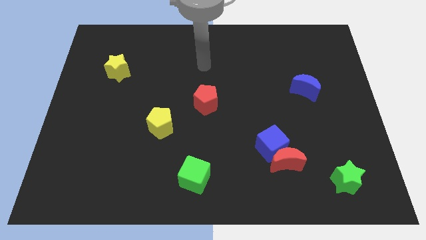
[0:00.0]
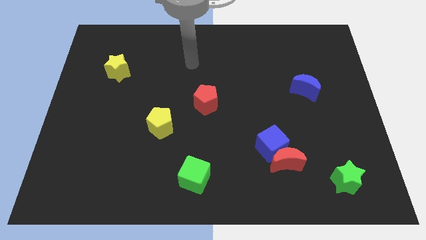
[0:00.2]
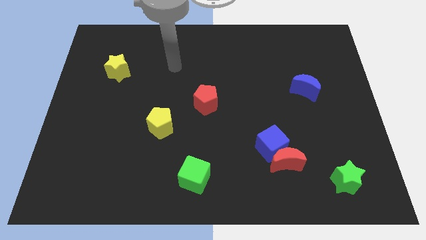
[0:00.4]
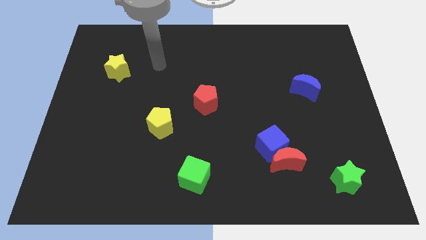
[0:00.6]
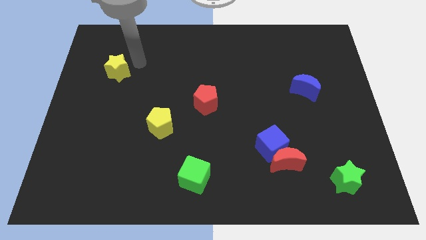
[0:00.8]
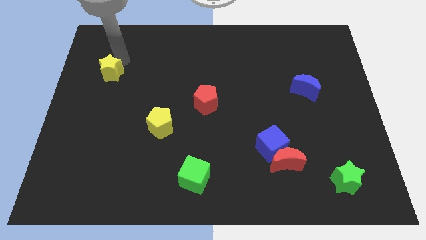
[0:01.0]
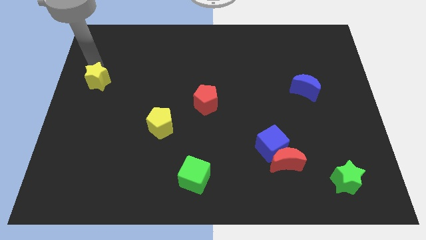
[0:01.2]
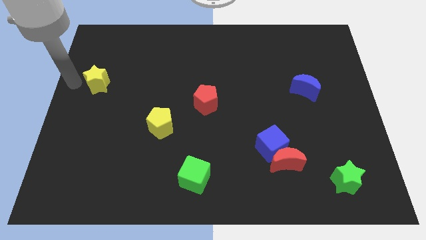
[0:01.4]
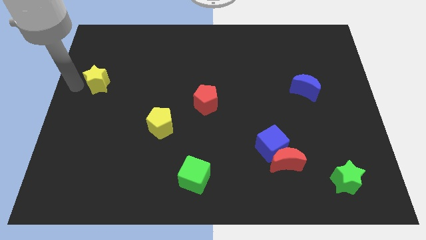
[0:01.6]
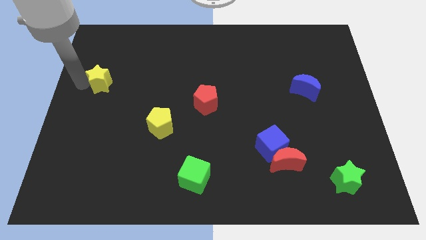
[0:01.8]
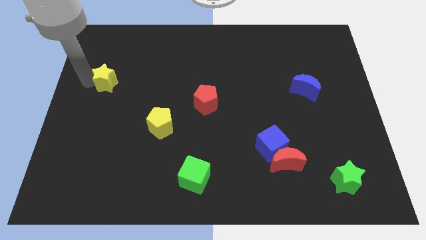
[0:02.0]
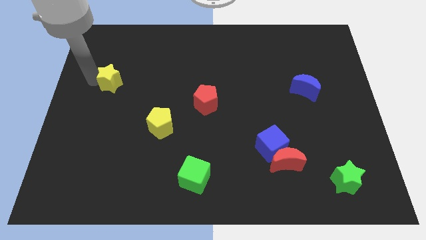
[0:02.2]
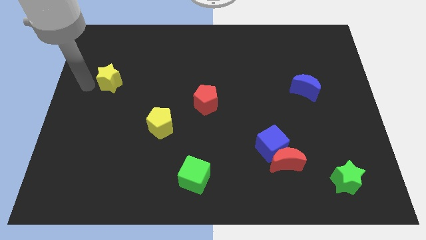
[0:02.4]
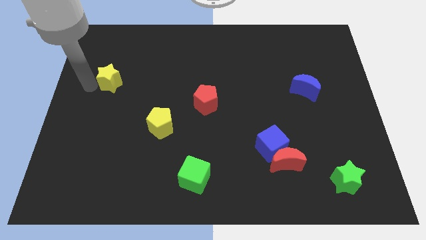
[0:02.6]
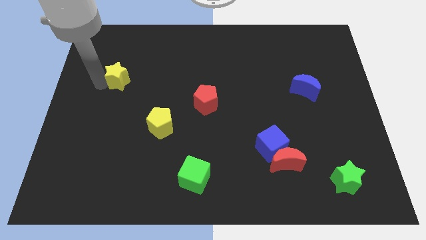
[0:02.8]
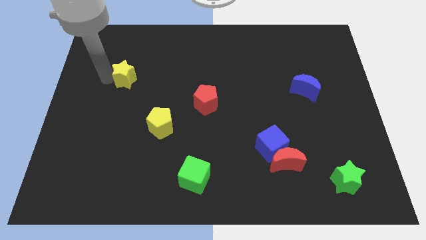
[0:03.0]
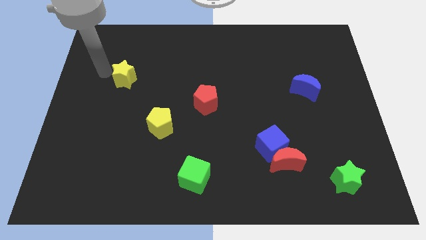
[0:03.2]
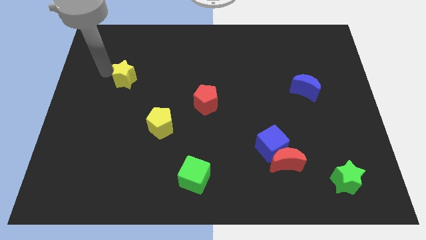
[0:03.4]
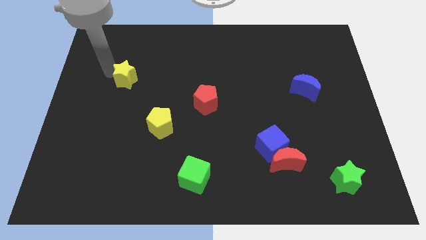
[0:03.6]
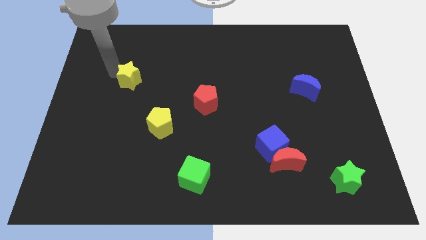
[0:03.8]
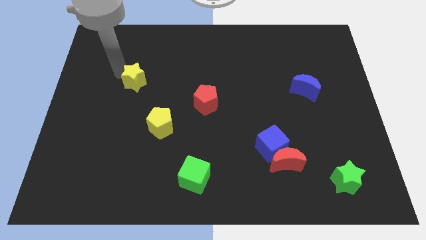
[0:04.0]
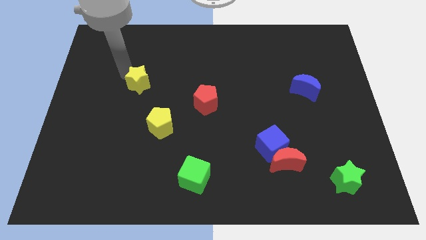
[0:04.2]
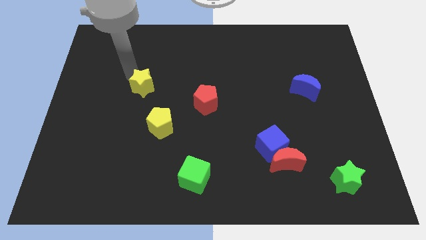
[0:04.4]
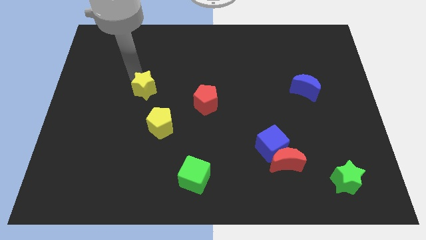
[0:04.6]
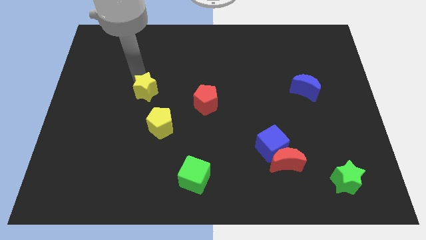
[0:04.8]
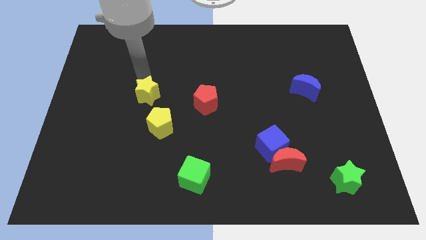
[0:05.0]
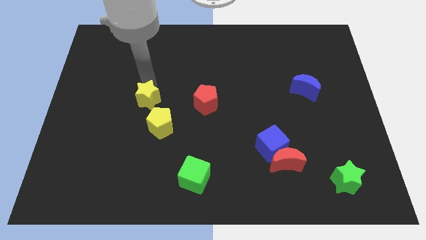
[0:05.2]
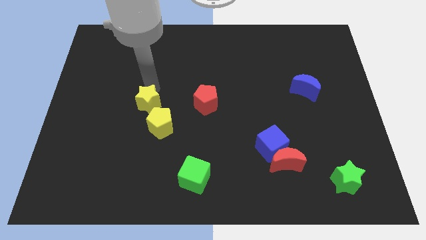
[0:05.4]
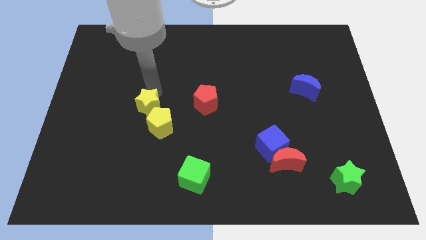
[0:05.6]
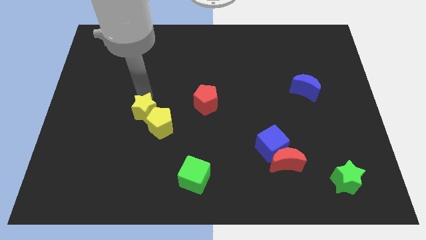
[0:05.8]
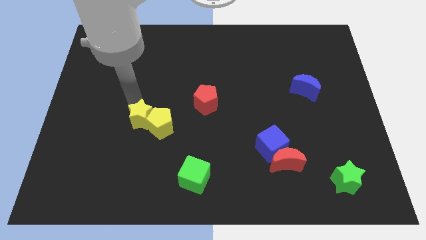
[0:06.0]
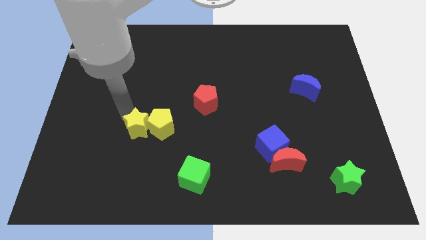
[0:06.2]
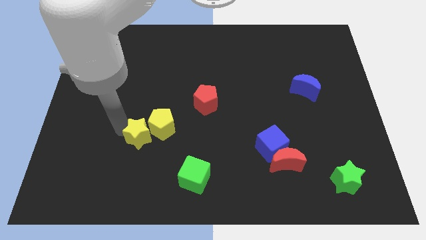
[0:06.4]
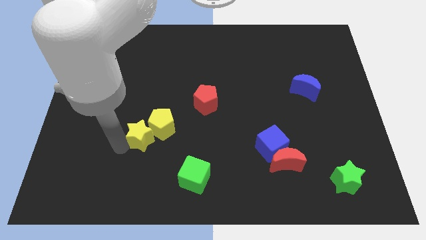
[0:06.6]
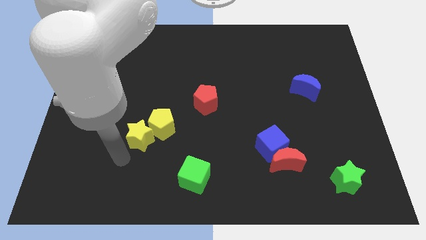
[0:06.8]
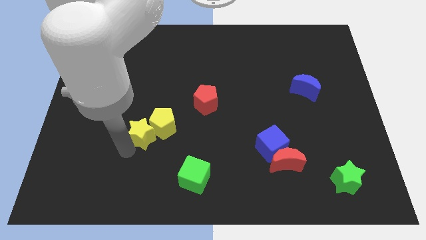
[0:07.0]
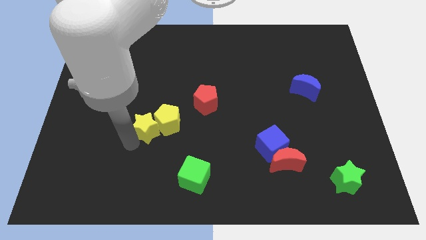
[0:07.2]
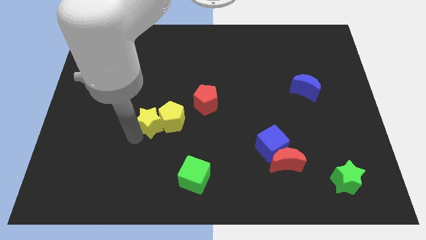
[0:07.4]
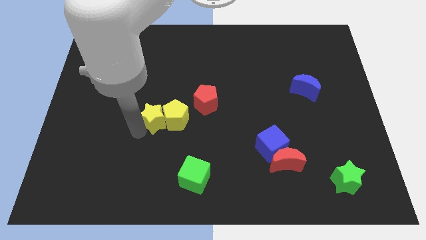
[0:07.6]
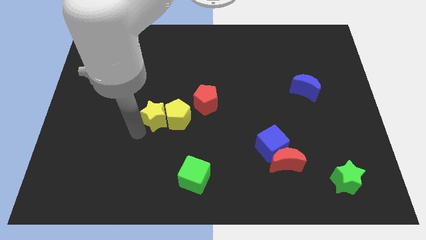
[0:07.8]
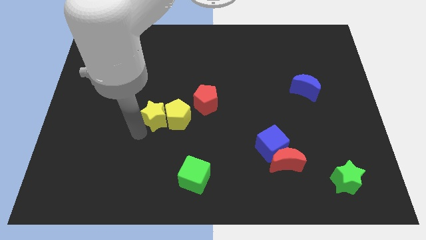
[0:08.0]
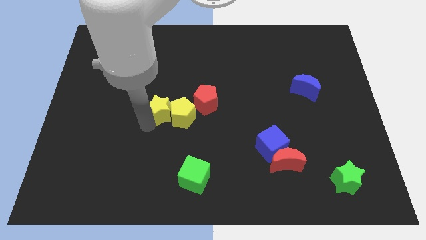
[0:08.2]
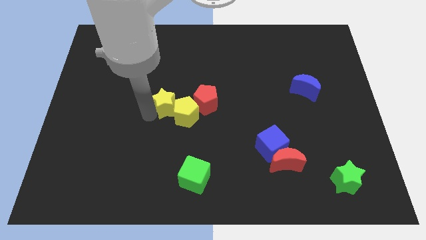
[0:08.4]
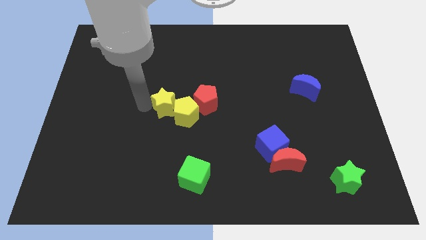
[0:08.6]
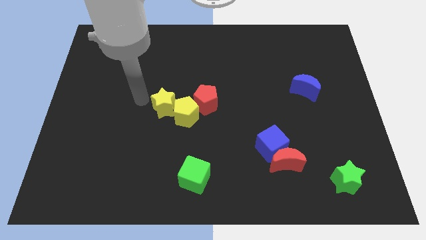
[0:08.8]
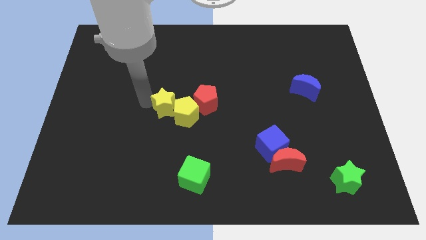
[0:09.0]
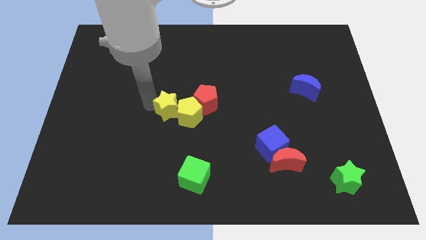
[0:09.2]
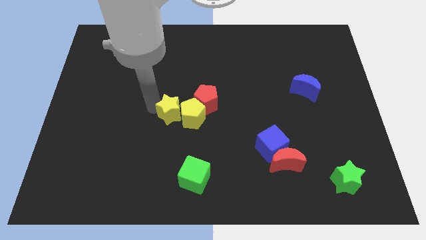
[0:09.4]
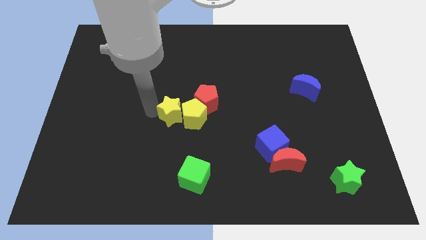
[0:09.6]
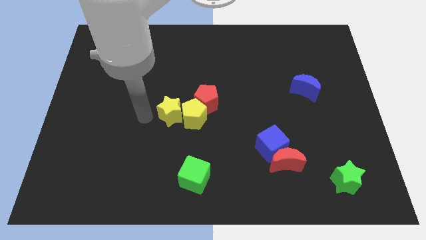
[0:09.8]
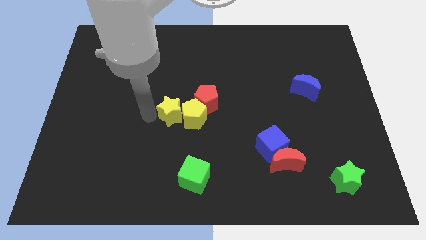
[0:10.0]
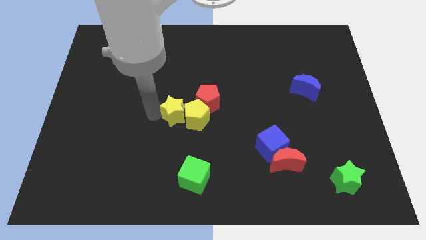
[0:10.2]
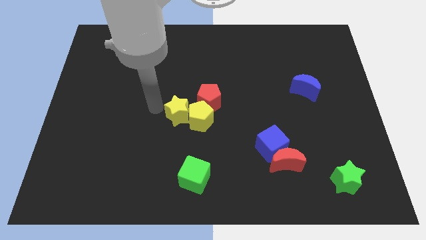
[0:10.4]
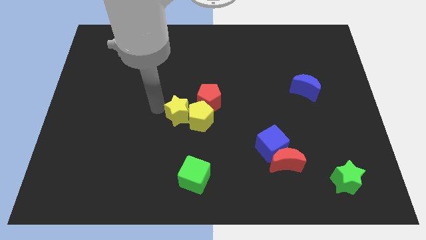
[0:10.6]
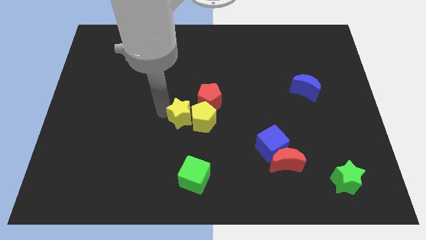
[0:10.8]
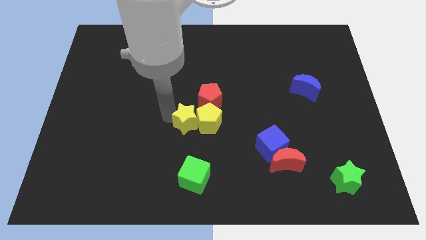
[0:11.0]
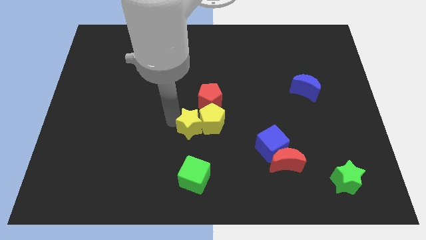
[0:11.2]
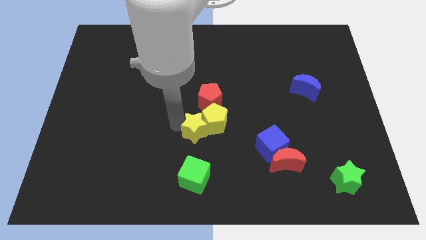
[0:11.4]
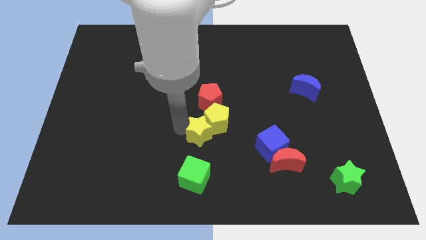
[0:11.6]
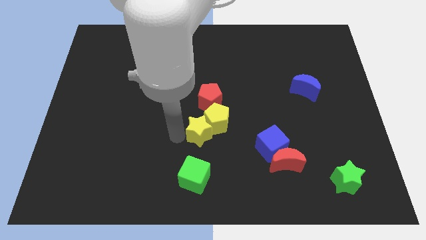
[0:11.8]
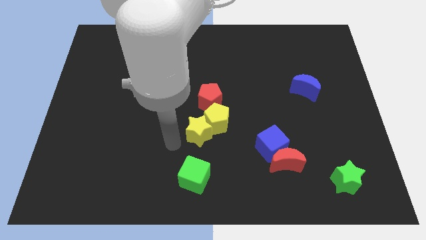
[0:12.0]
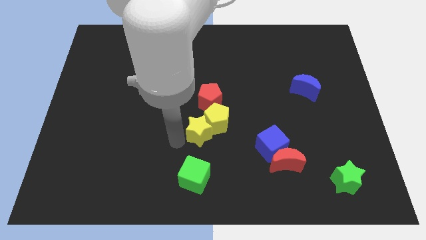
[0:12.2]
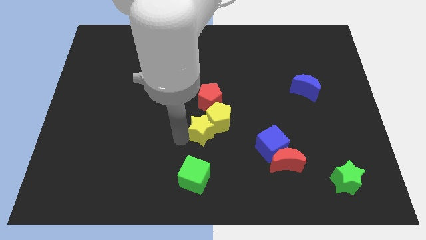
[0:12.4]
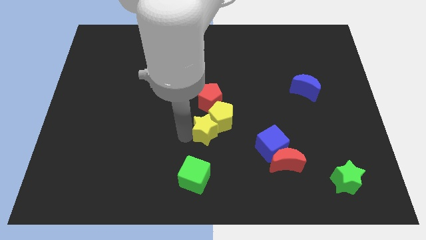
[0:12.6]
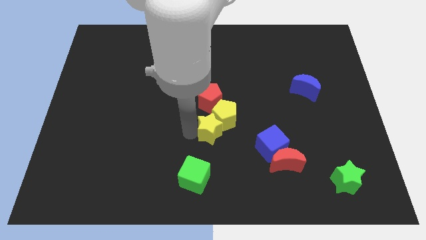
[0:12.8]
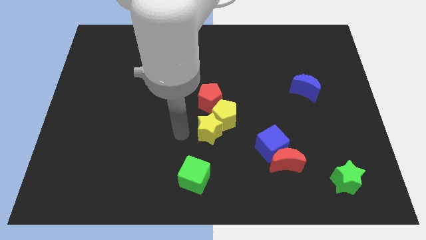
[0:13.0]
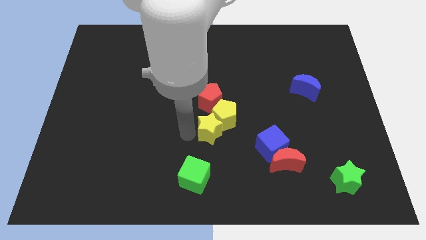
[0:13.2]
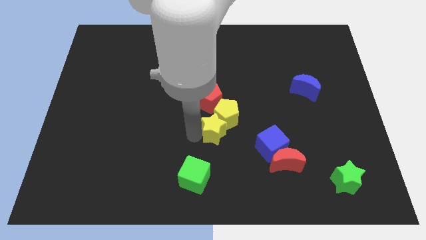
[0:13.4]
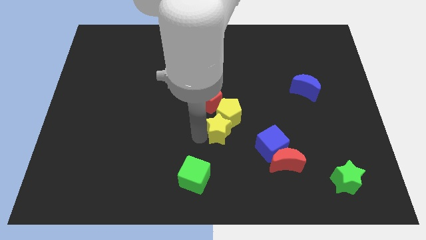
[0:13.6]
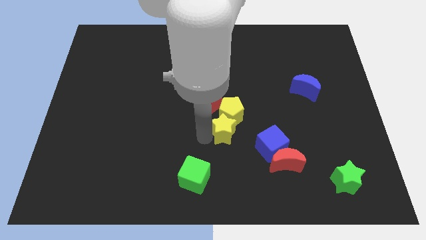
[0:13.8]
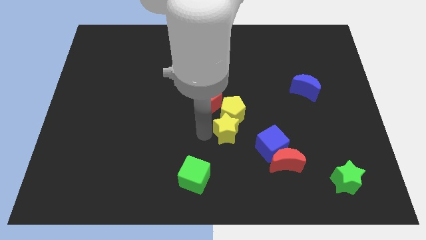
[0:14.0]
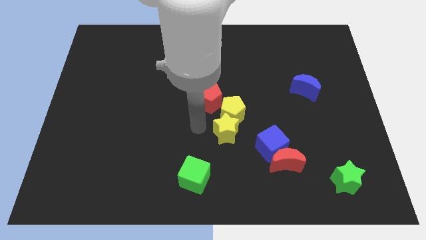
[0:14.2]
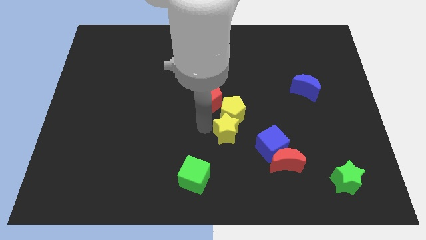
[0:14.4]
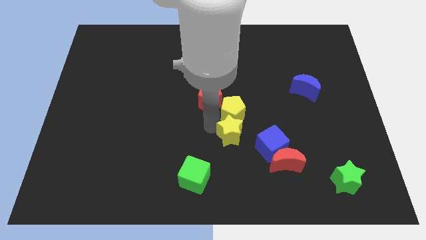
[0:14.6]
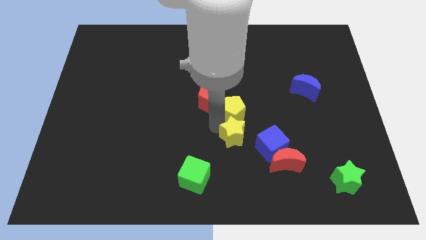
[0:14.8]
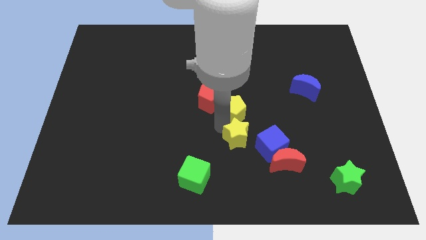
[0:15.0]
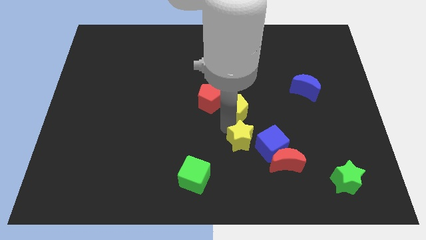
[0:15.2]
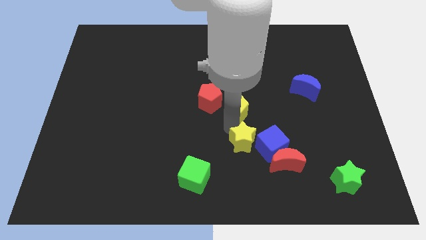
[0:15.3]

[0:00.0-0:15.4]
push the yellow star next to the blue cube
